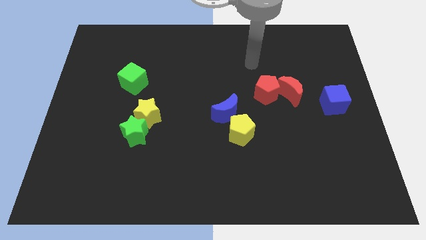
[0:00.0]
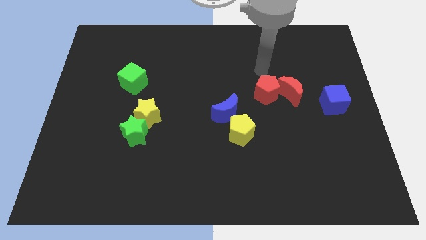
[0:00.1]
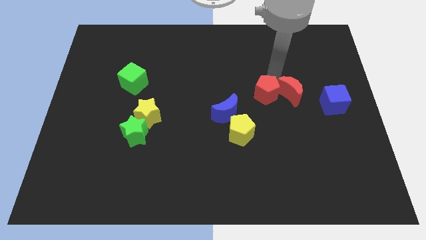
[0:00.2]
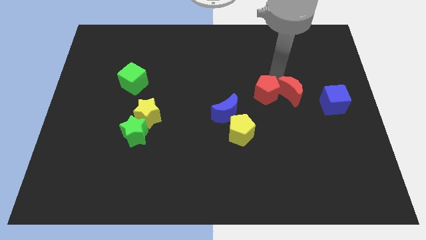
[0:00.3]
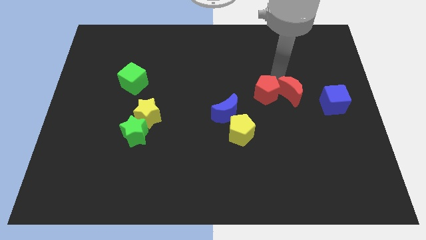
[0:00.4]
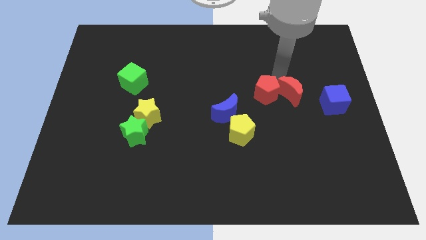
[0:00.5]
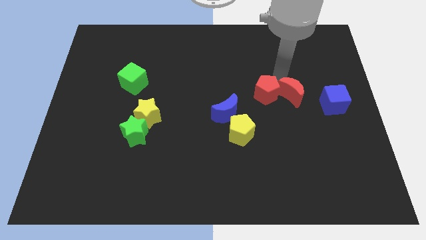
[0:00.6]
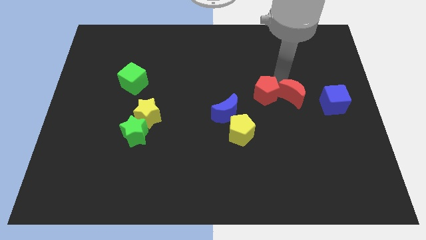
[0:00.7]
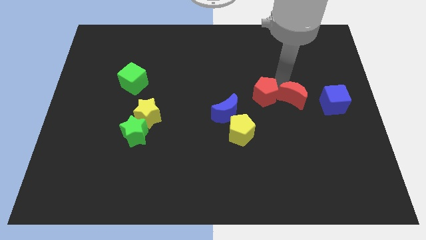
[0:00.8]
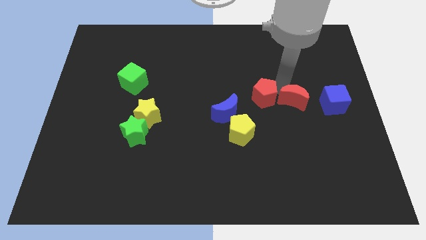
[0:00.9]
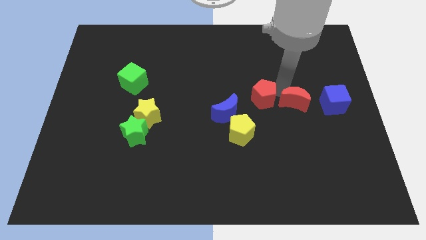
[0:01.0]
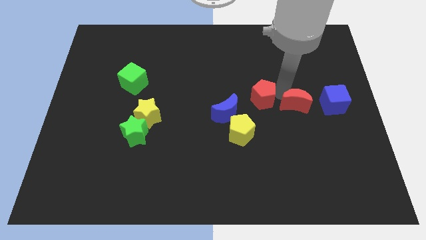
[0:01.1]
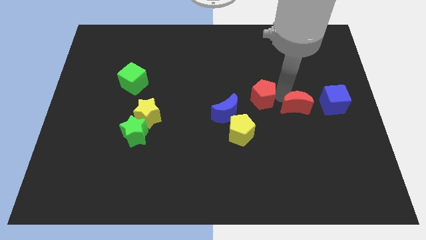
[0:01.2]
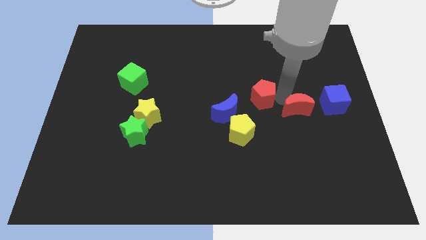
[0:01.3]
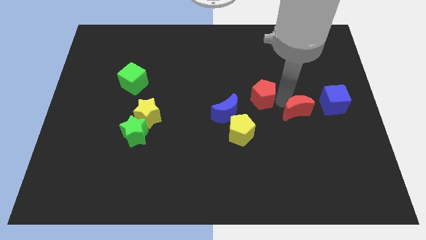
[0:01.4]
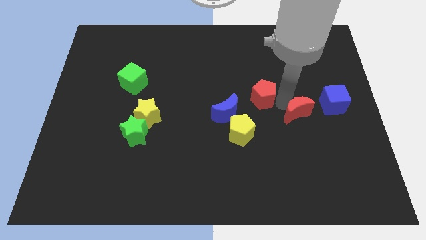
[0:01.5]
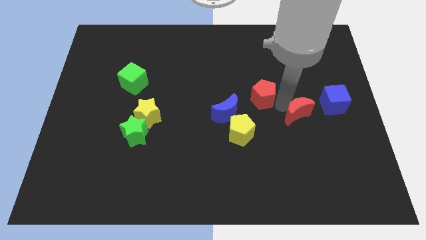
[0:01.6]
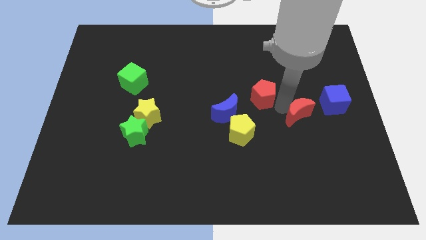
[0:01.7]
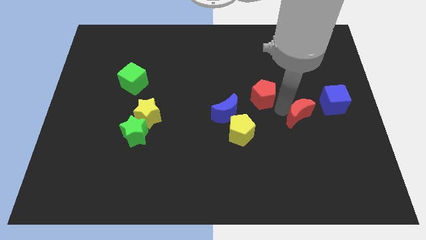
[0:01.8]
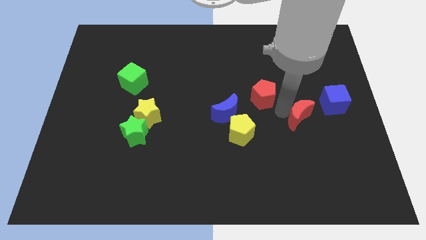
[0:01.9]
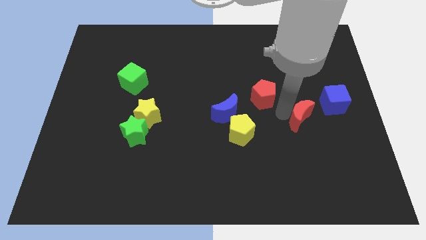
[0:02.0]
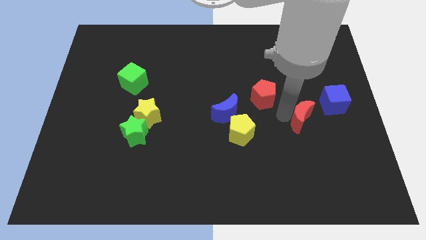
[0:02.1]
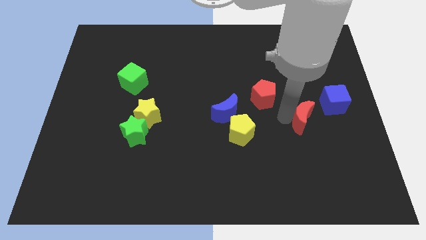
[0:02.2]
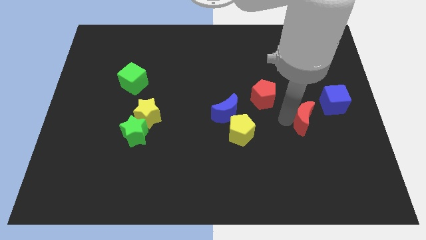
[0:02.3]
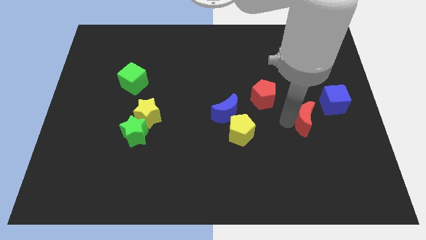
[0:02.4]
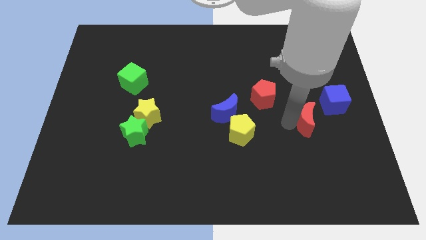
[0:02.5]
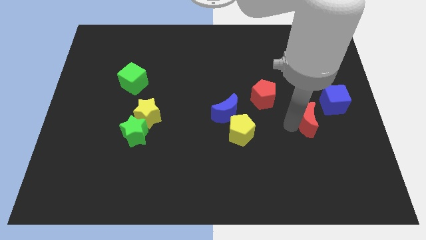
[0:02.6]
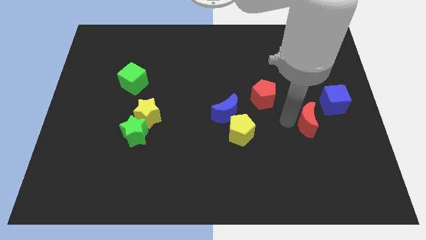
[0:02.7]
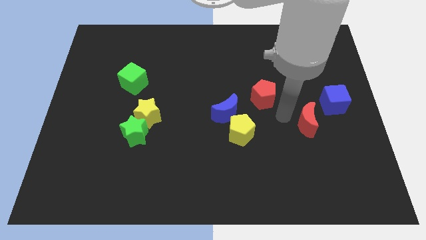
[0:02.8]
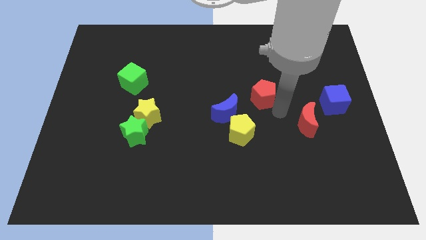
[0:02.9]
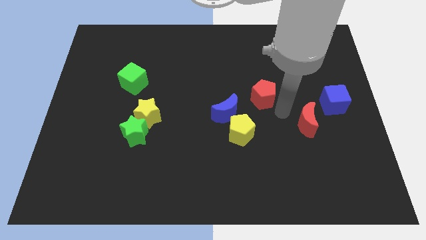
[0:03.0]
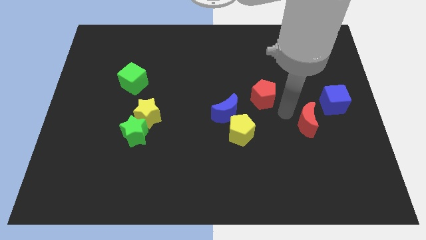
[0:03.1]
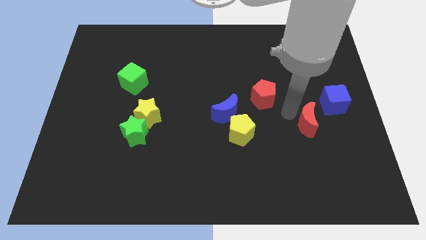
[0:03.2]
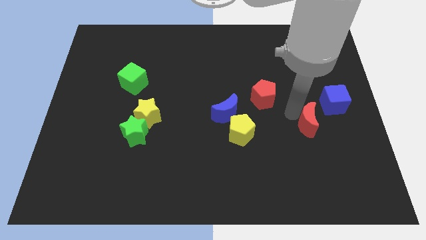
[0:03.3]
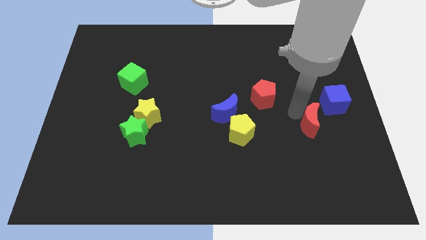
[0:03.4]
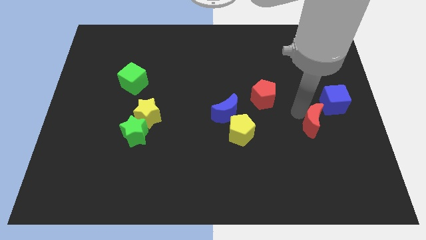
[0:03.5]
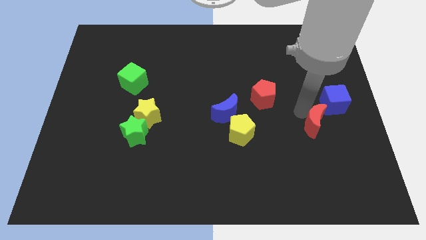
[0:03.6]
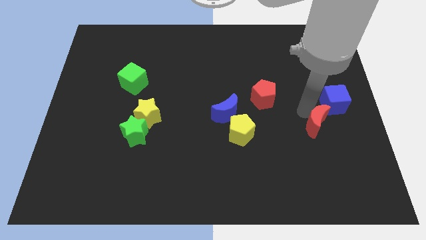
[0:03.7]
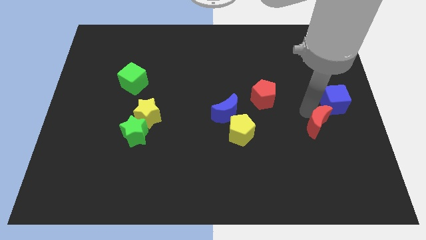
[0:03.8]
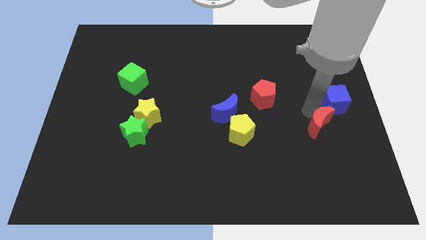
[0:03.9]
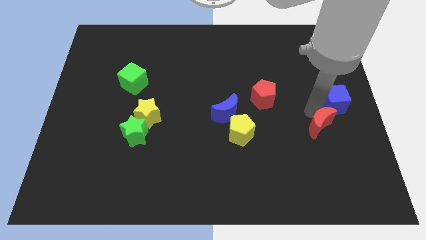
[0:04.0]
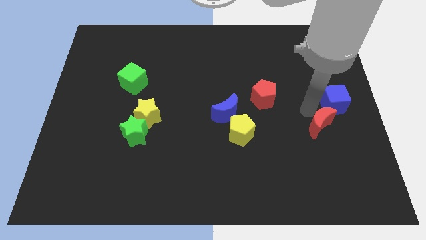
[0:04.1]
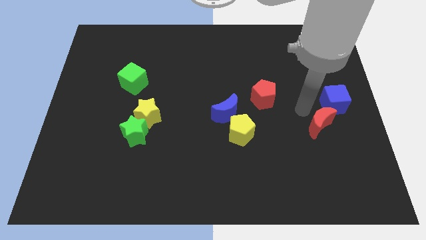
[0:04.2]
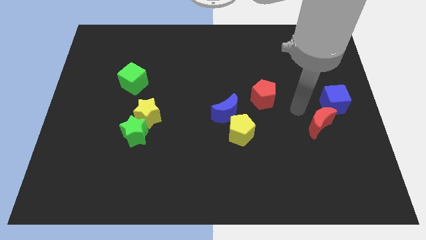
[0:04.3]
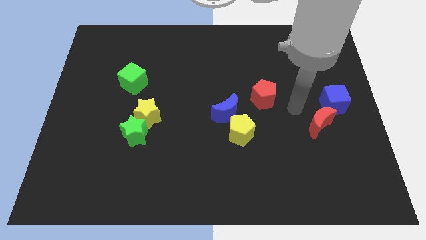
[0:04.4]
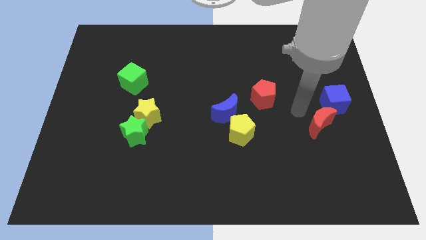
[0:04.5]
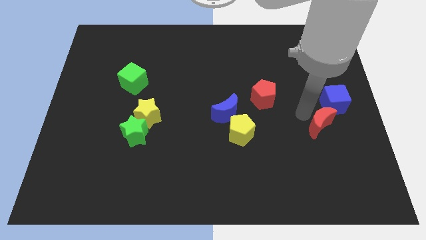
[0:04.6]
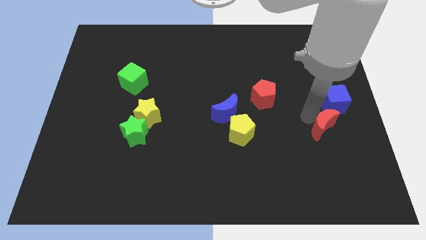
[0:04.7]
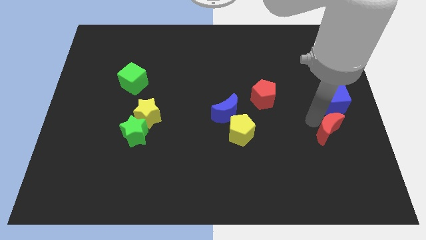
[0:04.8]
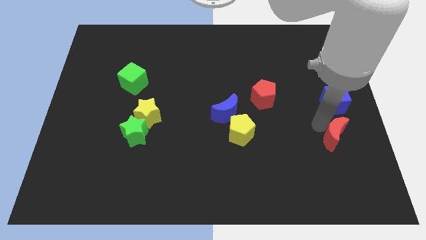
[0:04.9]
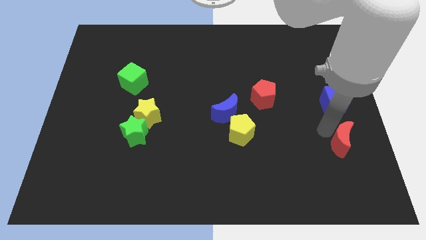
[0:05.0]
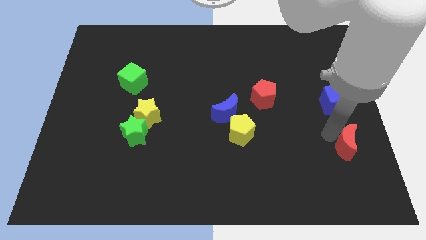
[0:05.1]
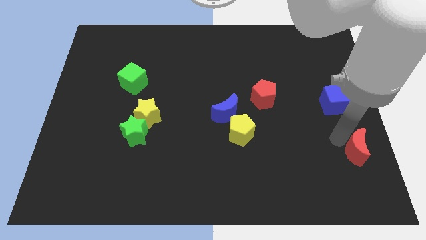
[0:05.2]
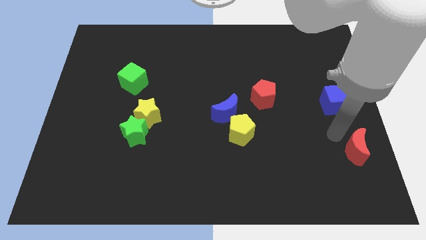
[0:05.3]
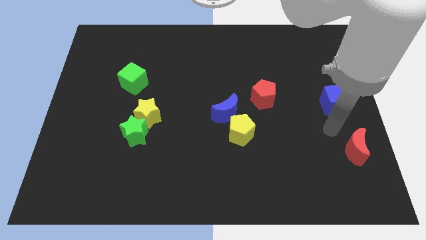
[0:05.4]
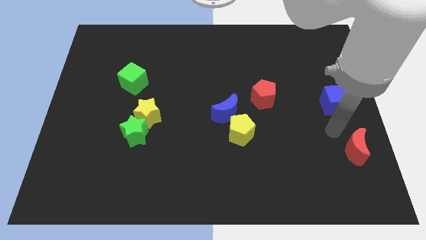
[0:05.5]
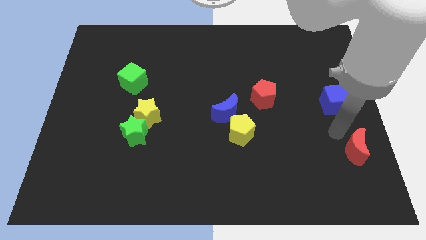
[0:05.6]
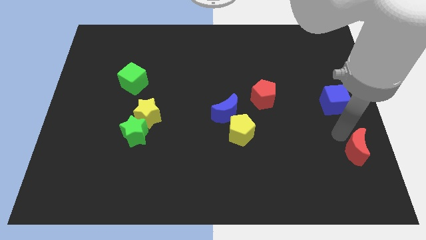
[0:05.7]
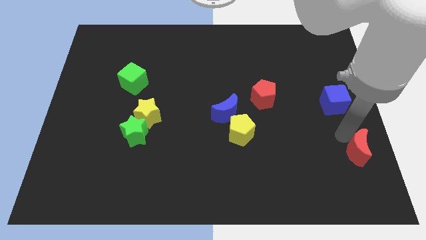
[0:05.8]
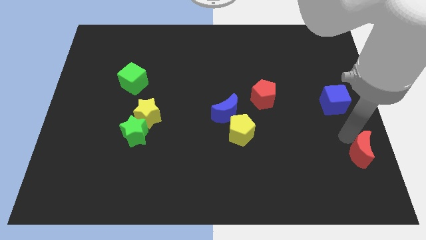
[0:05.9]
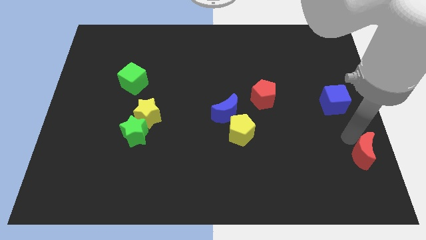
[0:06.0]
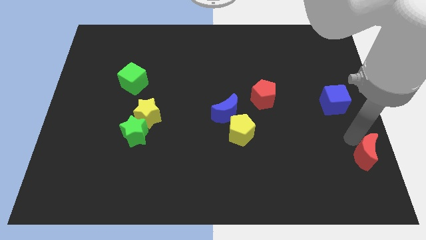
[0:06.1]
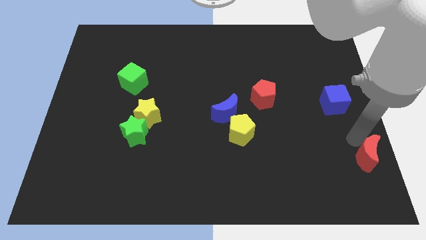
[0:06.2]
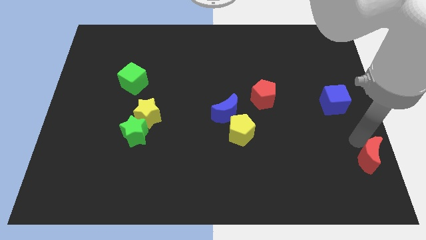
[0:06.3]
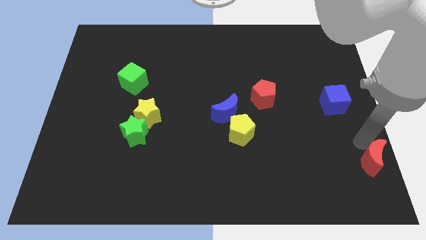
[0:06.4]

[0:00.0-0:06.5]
move the red moon to the bottom right corner

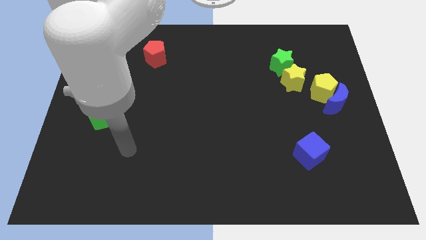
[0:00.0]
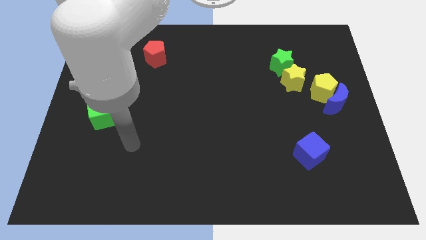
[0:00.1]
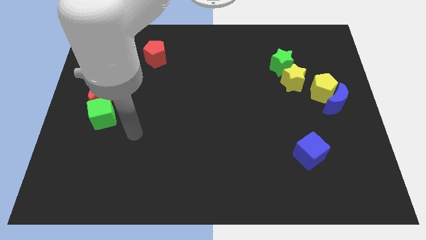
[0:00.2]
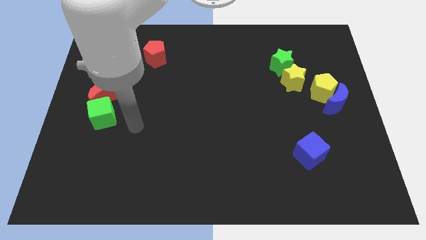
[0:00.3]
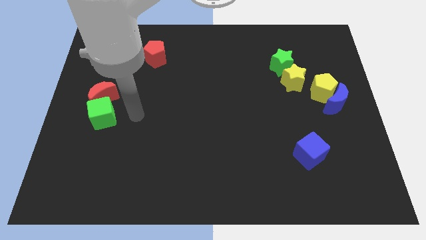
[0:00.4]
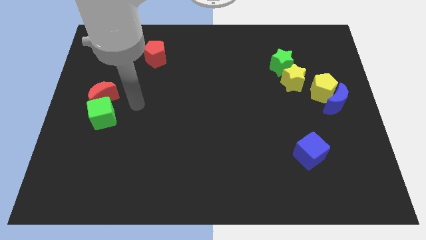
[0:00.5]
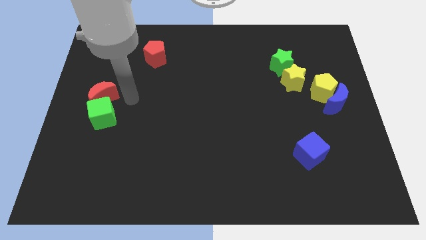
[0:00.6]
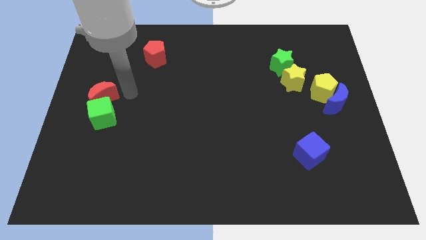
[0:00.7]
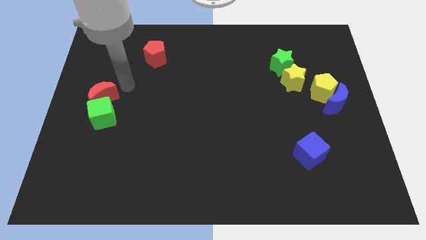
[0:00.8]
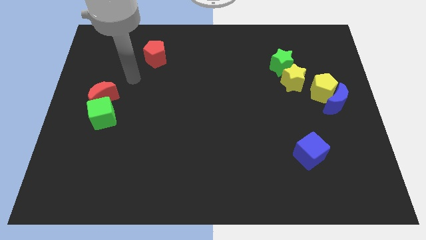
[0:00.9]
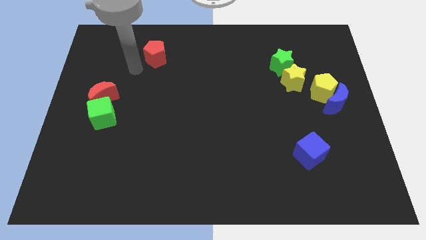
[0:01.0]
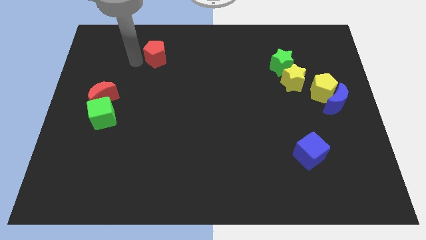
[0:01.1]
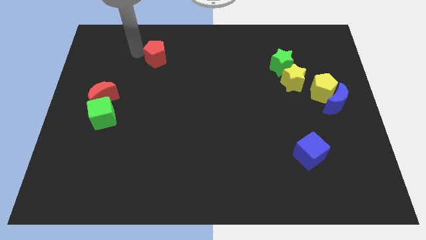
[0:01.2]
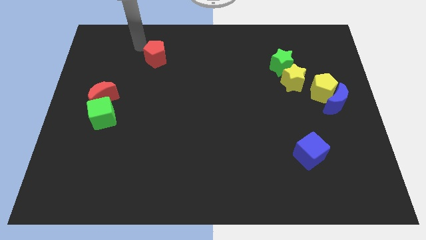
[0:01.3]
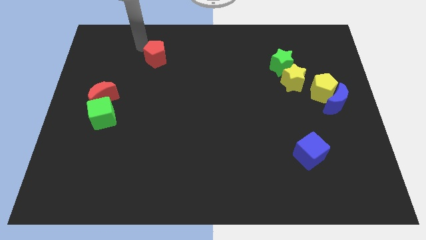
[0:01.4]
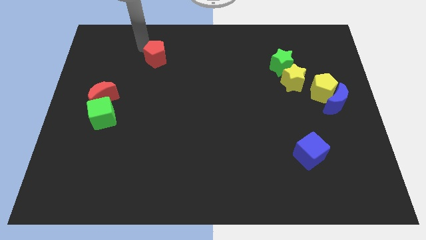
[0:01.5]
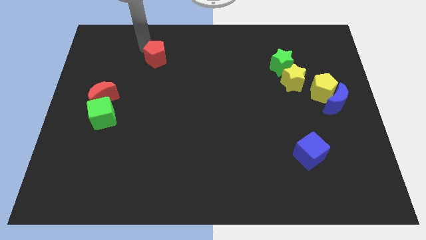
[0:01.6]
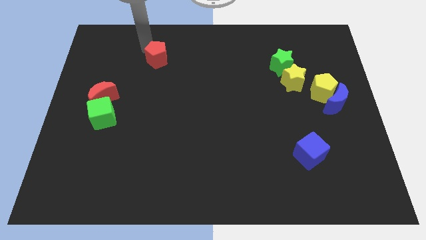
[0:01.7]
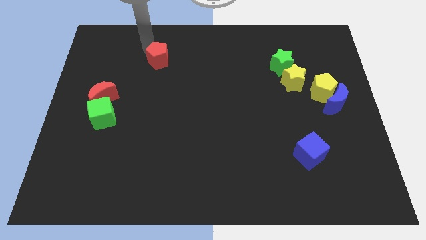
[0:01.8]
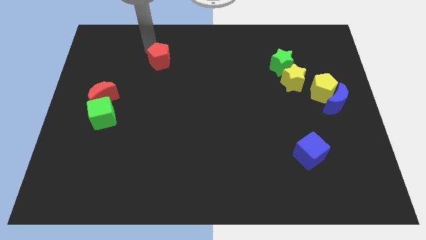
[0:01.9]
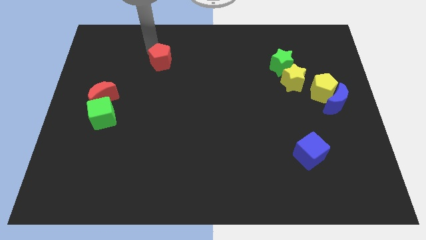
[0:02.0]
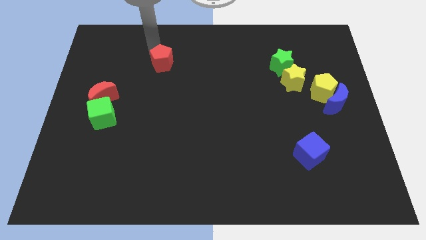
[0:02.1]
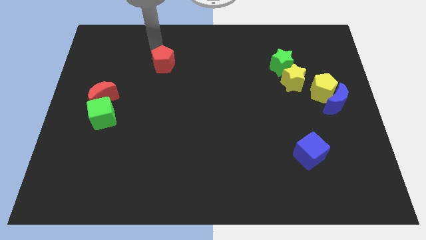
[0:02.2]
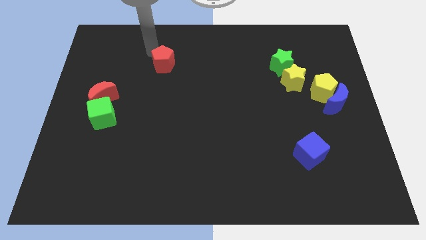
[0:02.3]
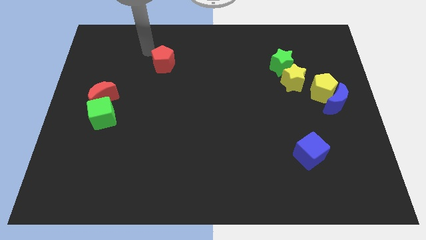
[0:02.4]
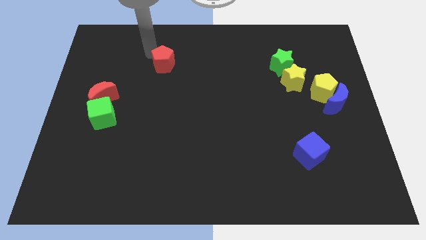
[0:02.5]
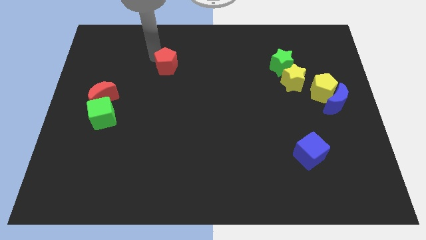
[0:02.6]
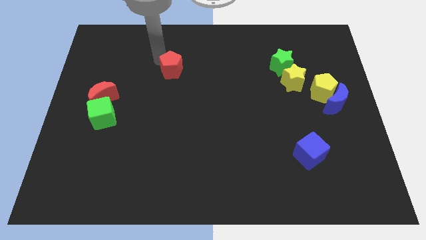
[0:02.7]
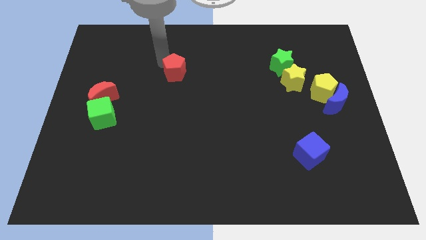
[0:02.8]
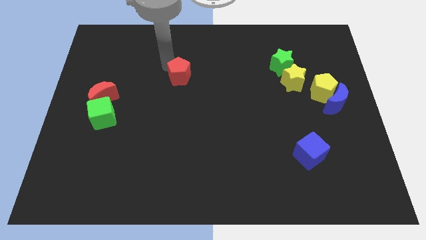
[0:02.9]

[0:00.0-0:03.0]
push the red pentagon to the center
